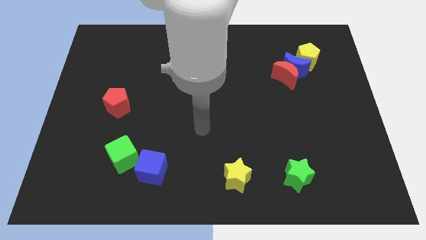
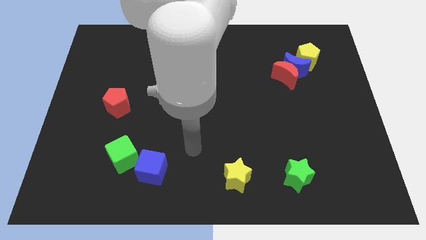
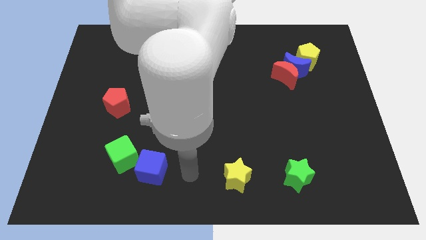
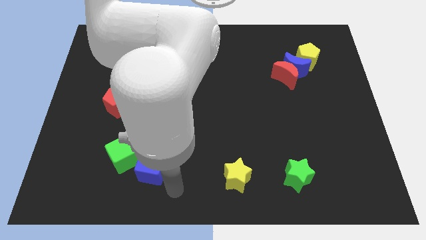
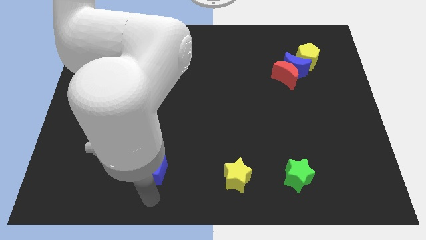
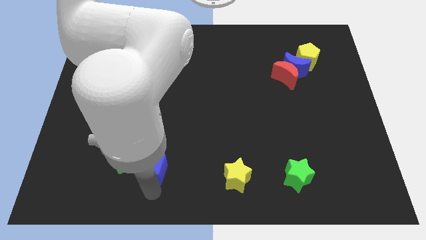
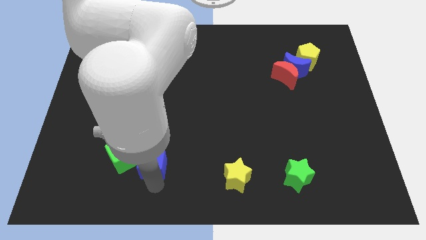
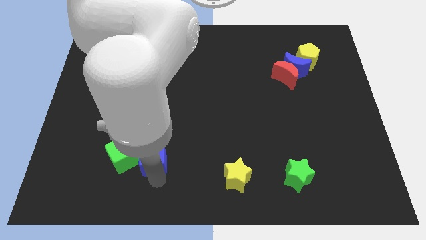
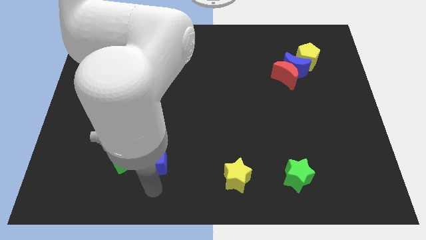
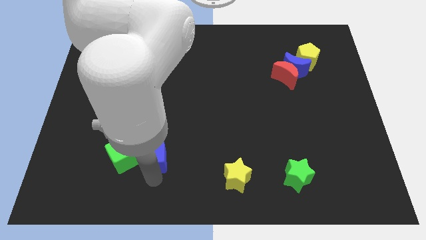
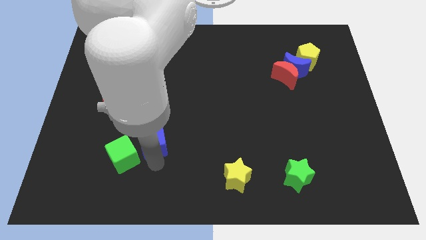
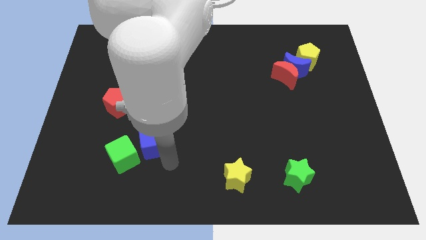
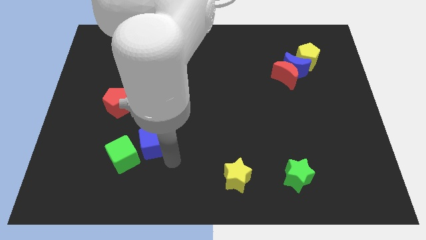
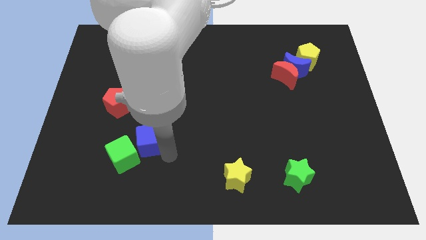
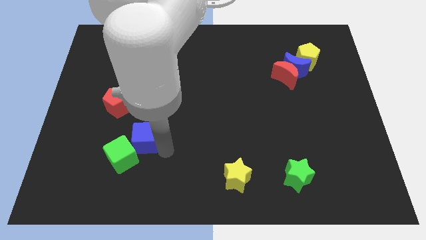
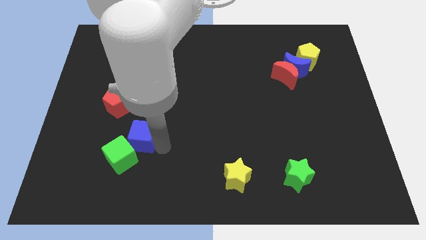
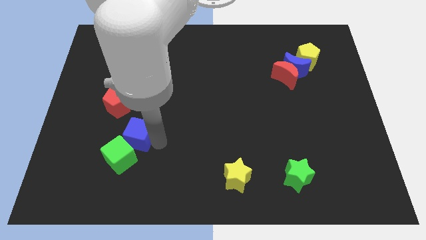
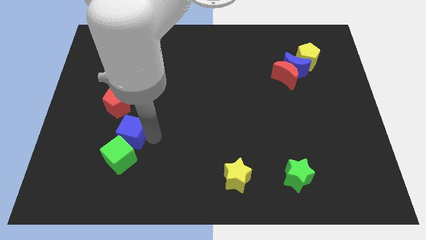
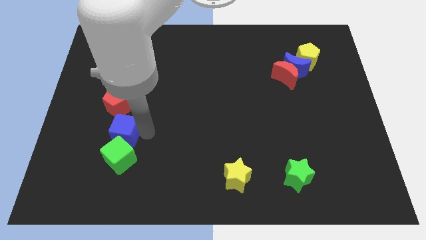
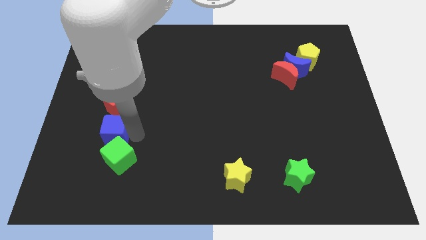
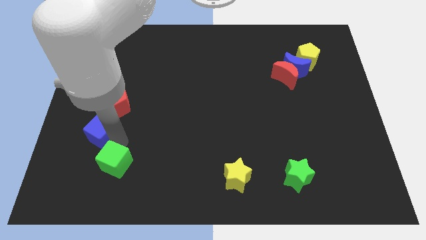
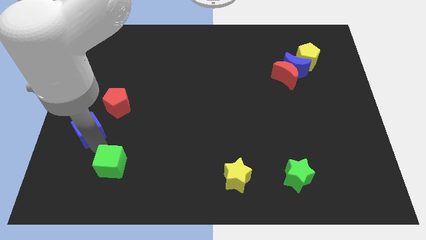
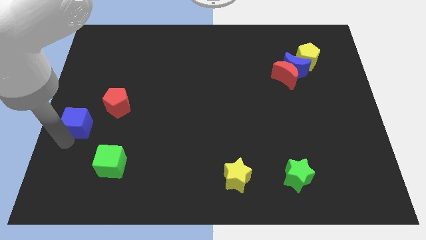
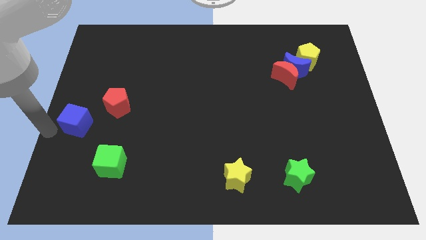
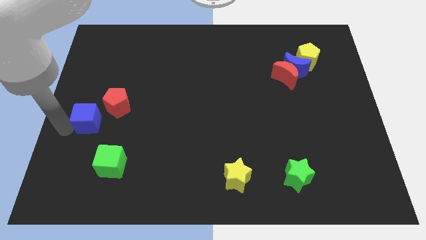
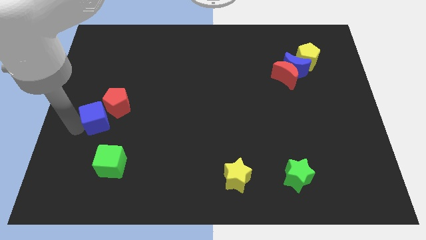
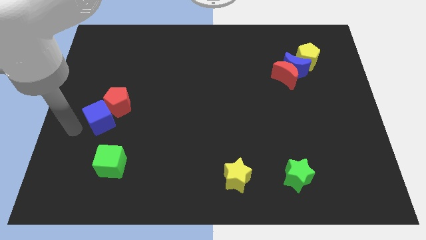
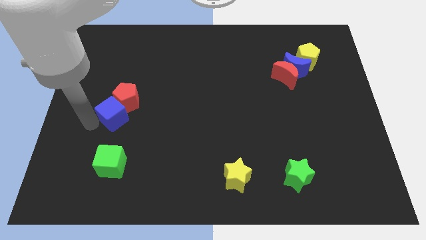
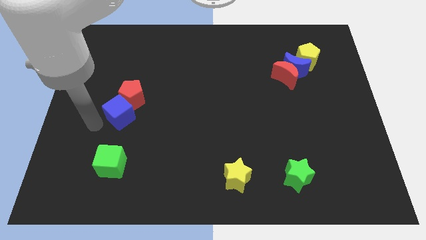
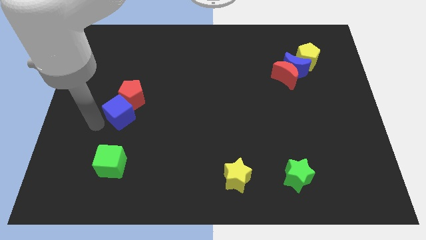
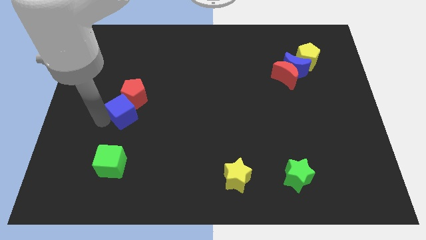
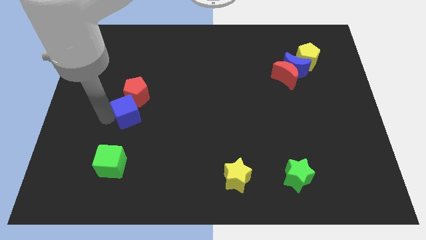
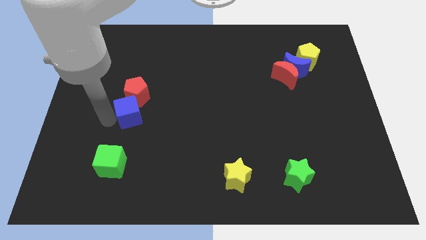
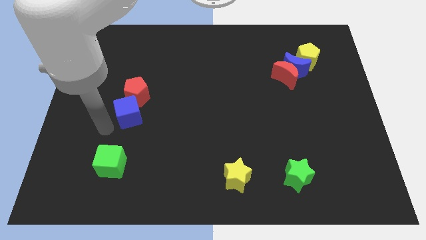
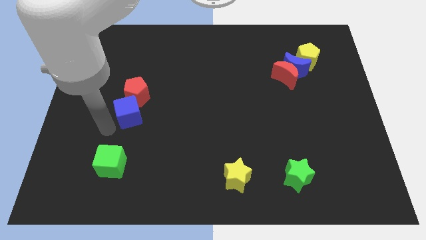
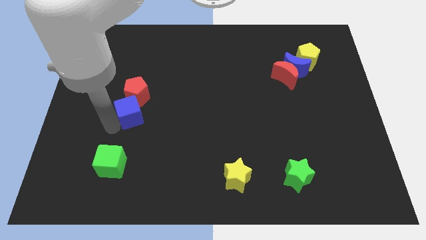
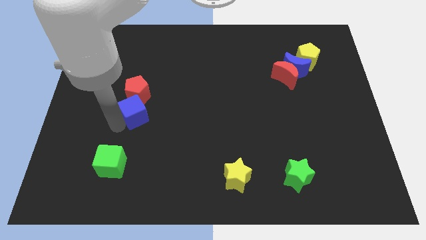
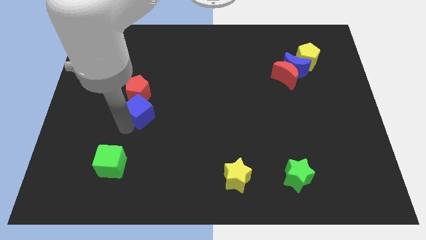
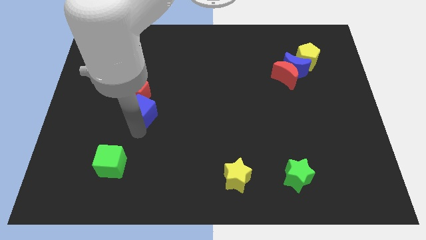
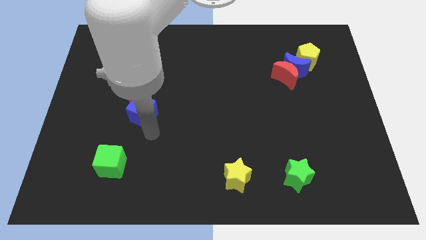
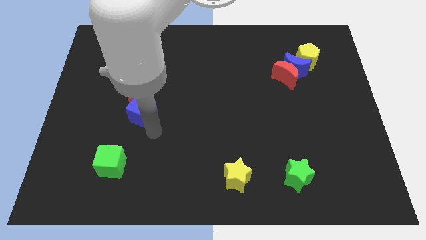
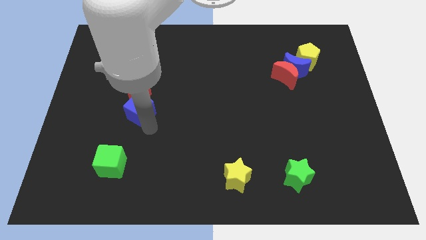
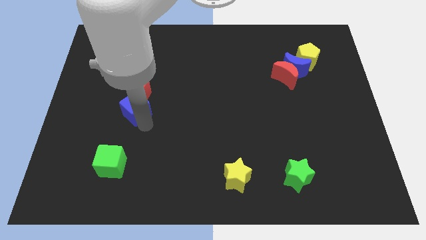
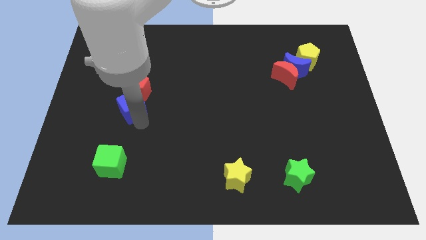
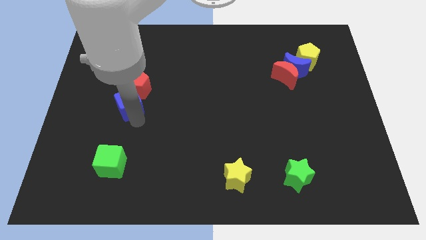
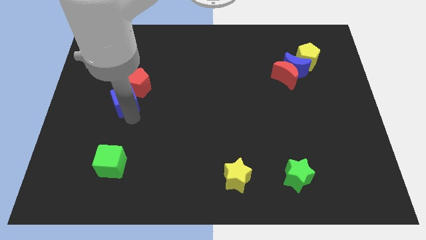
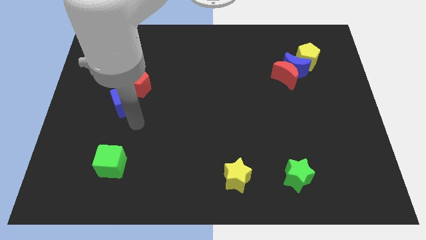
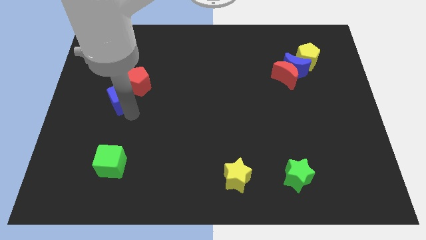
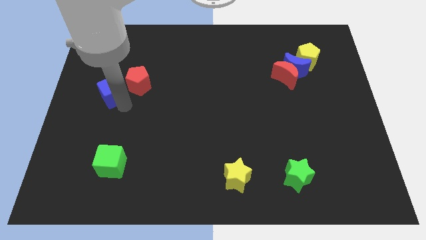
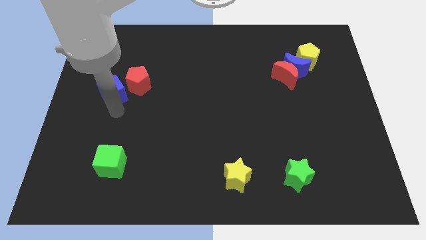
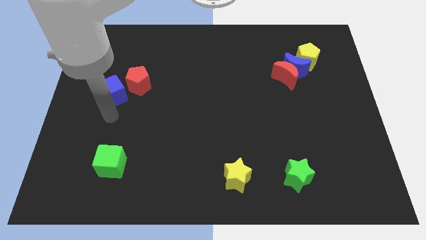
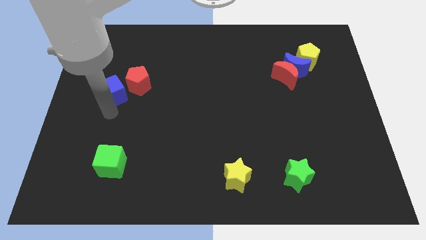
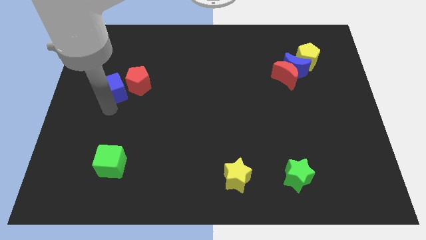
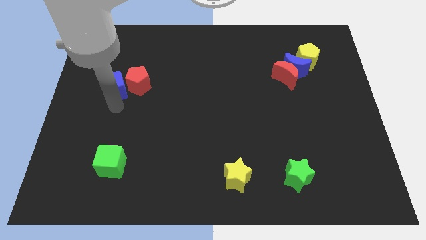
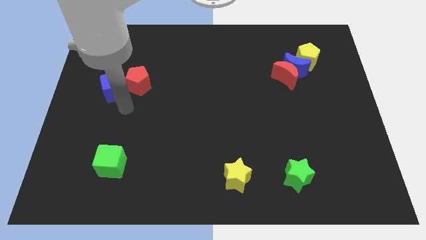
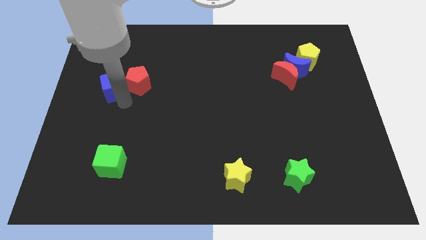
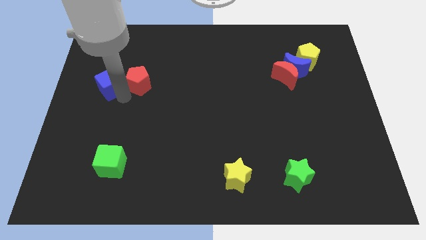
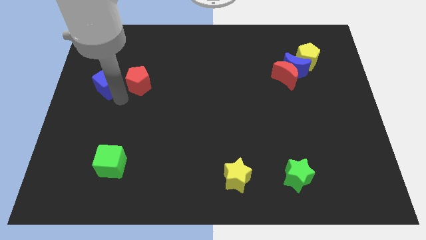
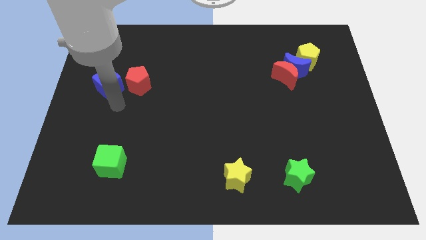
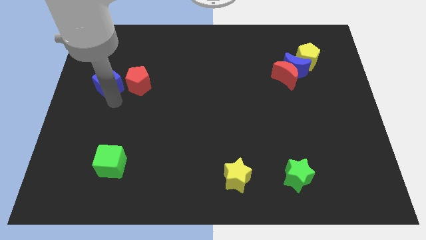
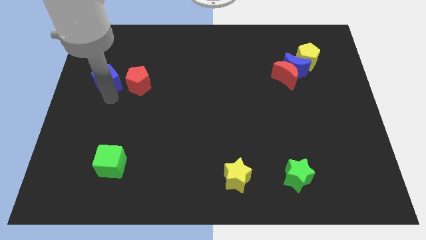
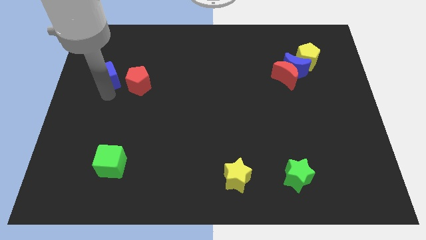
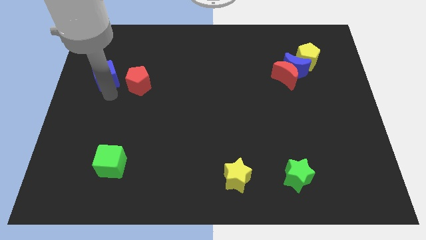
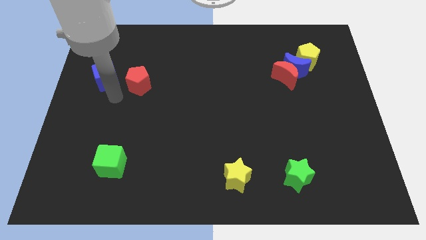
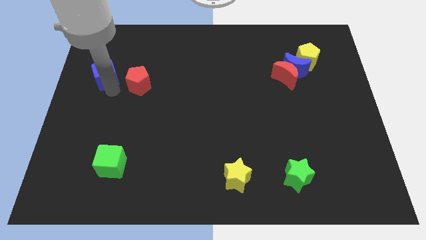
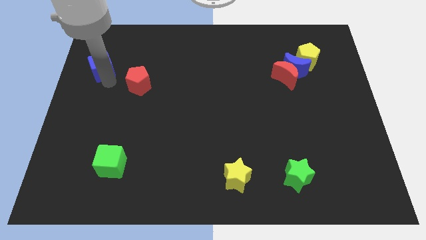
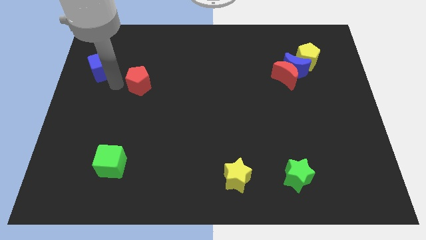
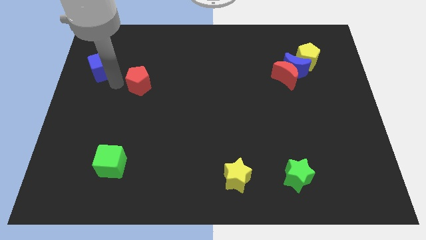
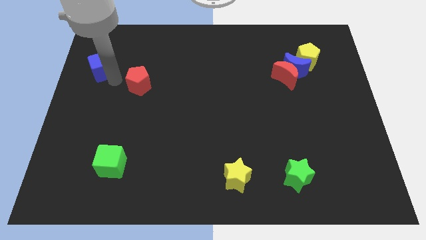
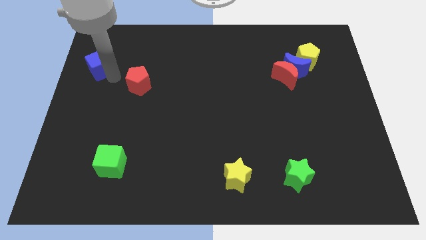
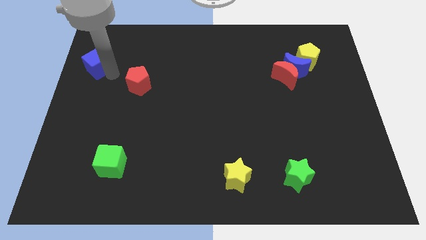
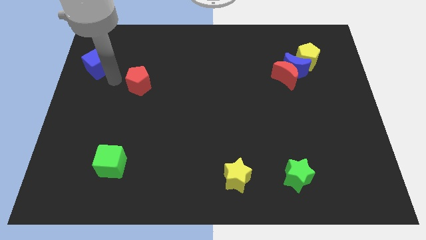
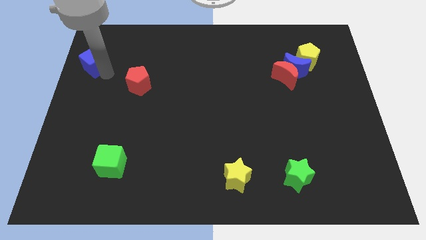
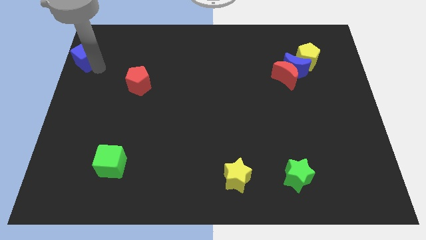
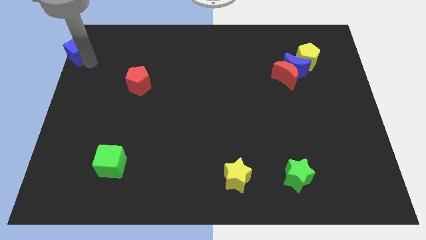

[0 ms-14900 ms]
slide the blue cube to the top left of the board
